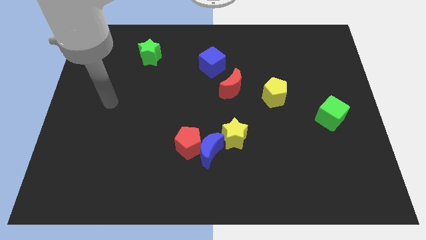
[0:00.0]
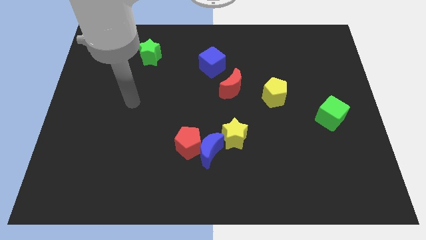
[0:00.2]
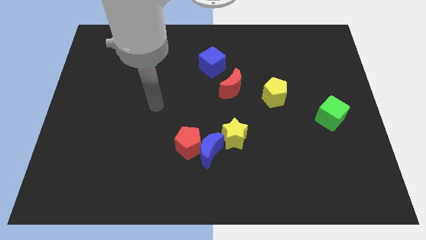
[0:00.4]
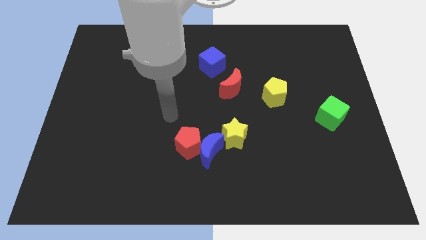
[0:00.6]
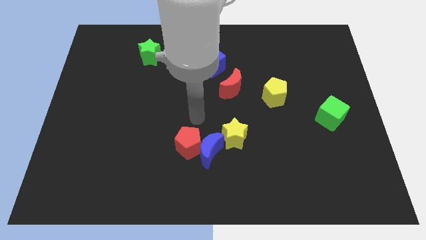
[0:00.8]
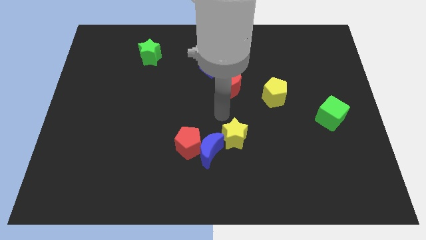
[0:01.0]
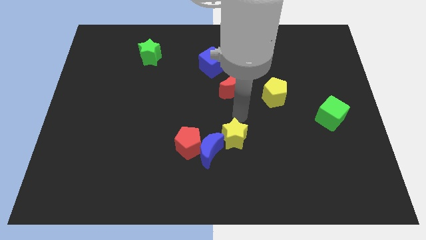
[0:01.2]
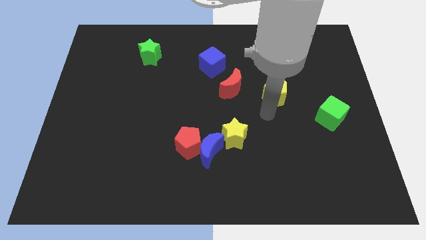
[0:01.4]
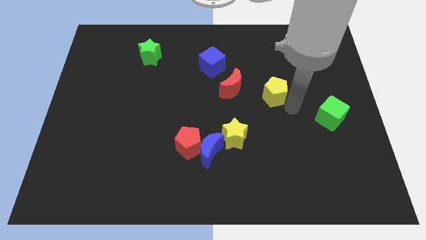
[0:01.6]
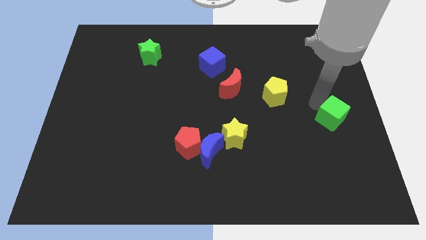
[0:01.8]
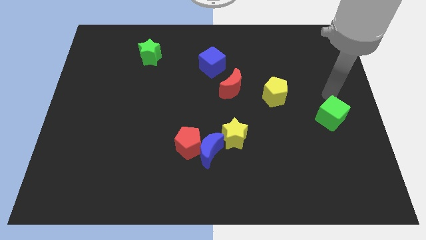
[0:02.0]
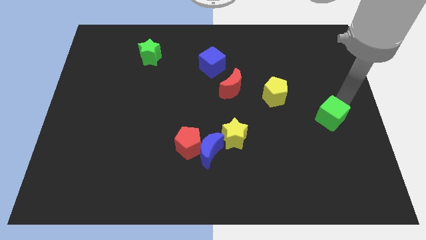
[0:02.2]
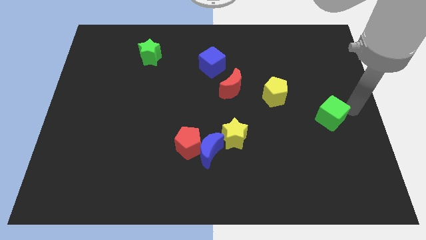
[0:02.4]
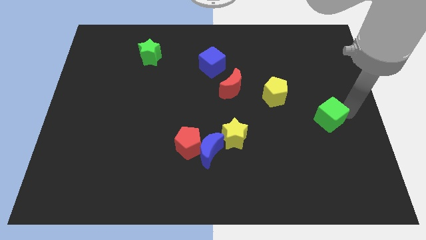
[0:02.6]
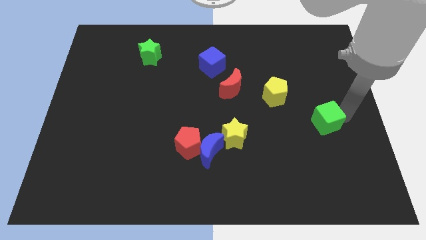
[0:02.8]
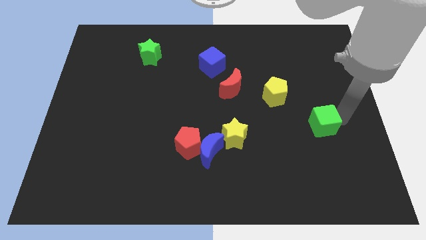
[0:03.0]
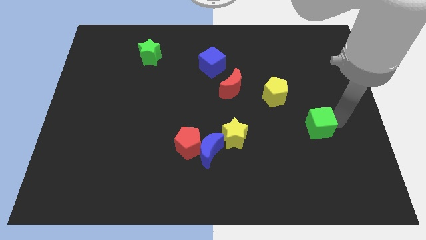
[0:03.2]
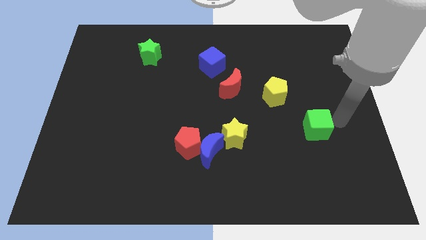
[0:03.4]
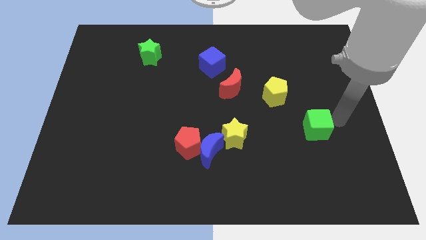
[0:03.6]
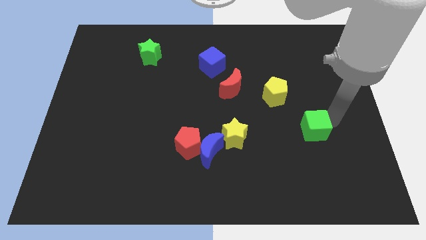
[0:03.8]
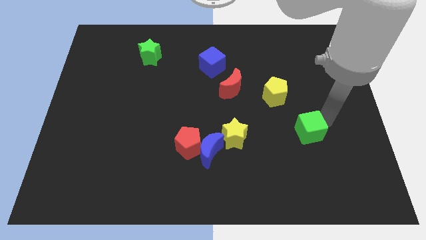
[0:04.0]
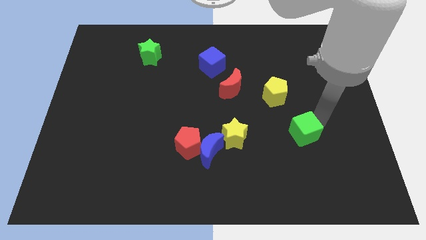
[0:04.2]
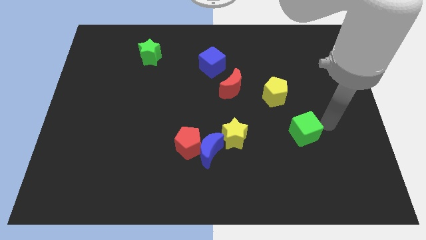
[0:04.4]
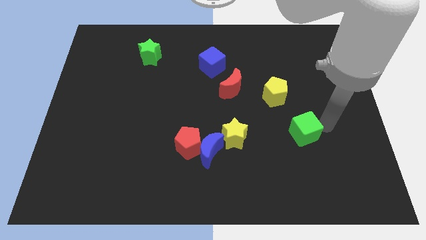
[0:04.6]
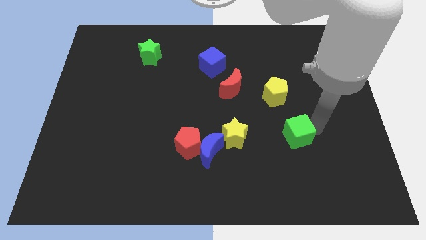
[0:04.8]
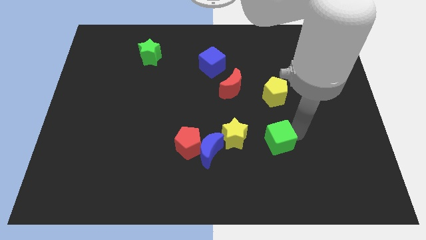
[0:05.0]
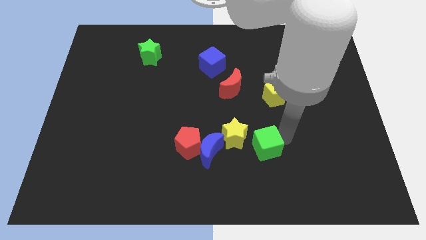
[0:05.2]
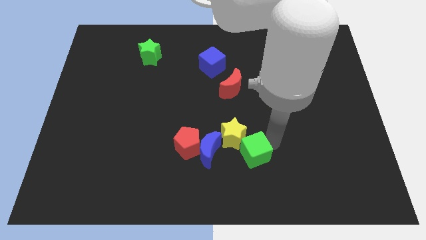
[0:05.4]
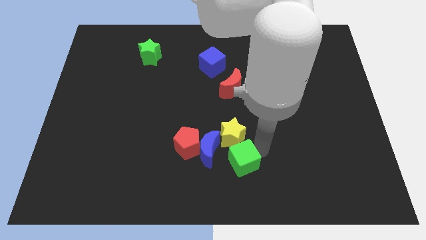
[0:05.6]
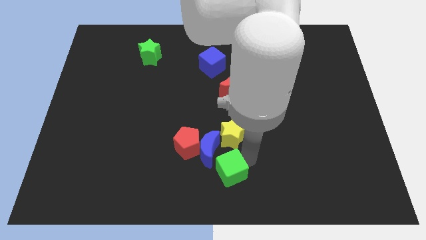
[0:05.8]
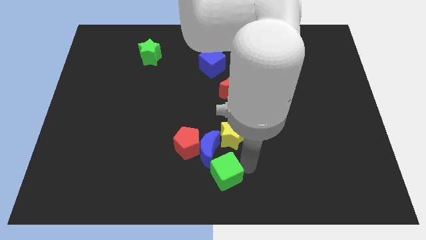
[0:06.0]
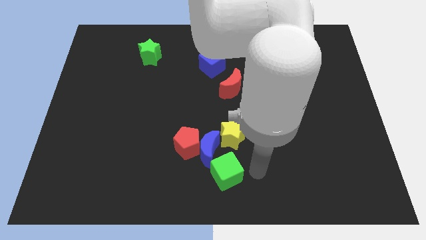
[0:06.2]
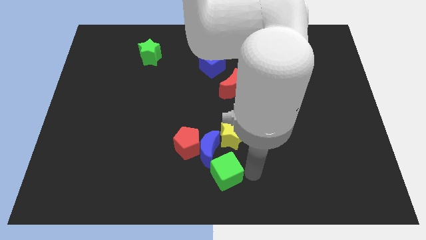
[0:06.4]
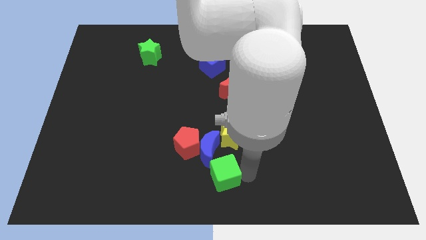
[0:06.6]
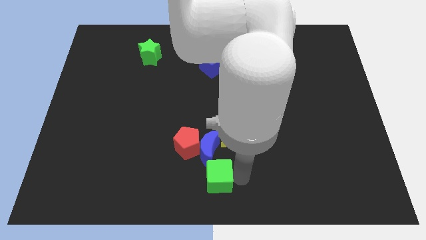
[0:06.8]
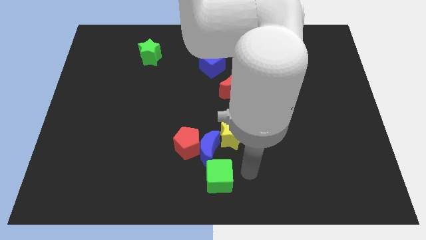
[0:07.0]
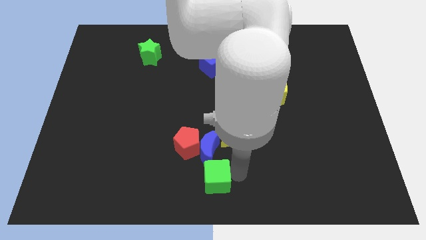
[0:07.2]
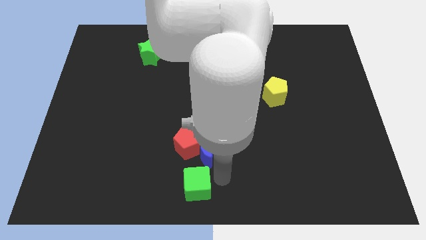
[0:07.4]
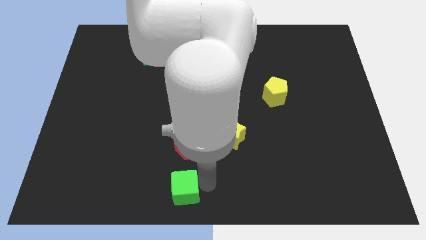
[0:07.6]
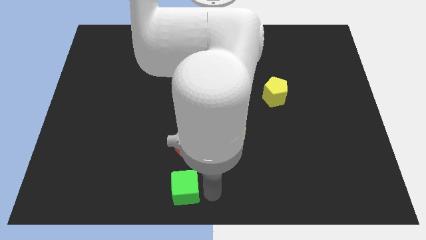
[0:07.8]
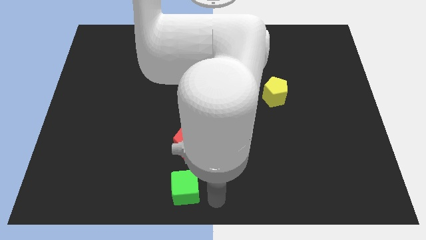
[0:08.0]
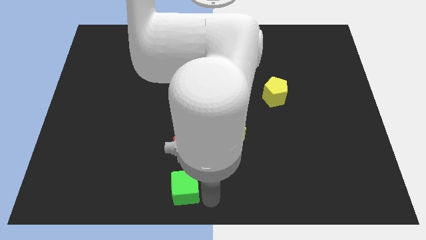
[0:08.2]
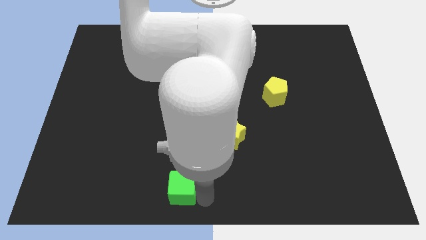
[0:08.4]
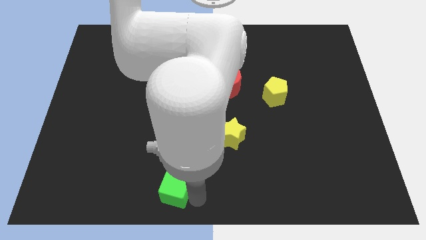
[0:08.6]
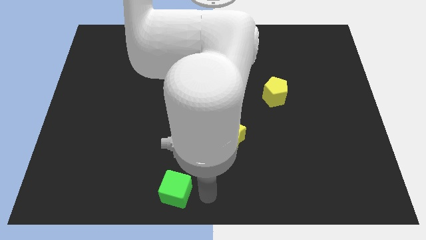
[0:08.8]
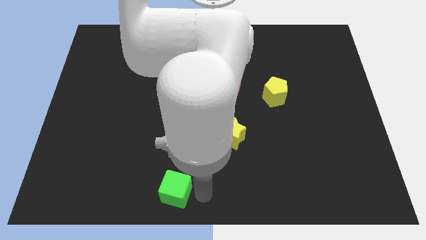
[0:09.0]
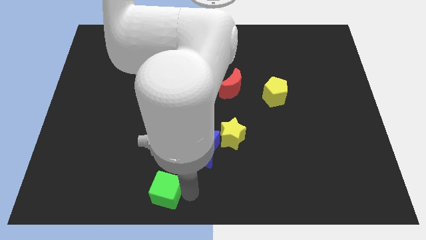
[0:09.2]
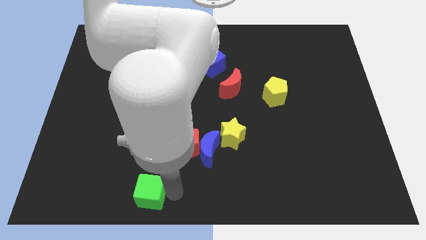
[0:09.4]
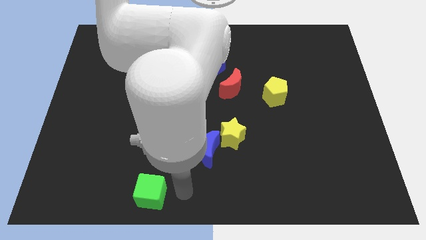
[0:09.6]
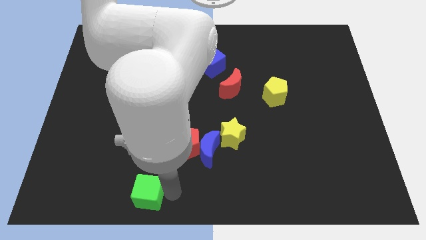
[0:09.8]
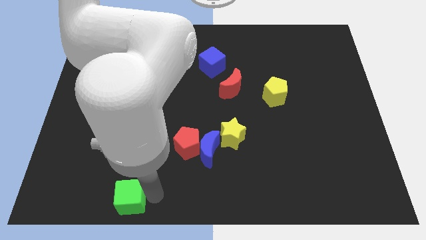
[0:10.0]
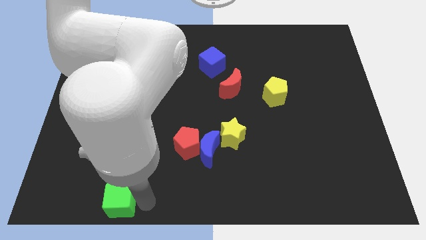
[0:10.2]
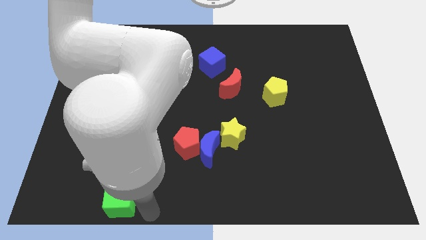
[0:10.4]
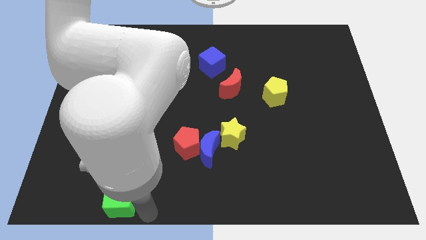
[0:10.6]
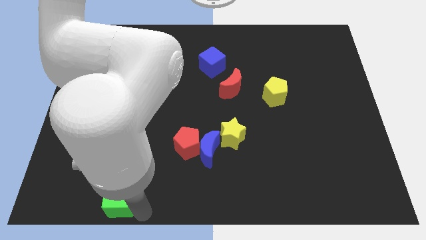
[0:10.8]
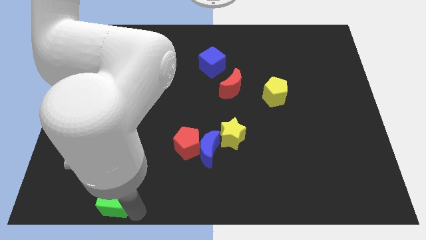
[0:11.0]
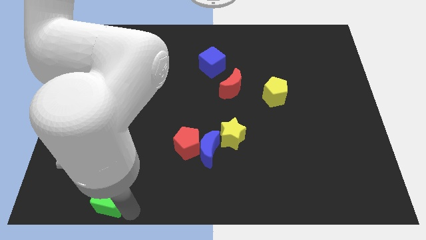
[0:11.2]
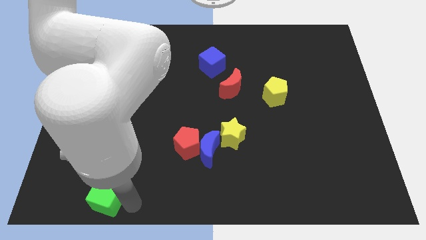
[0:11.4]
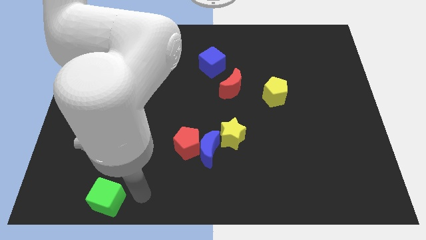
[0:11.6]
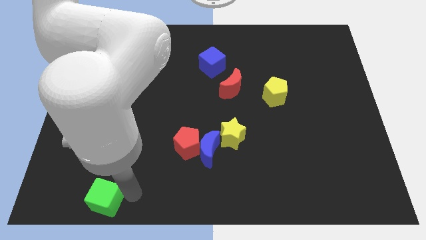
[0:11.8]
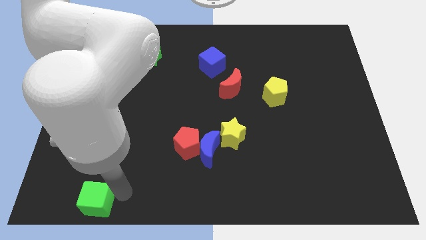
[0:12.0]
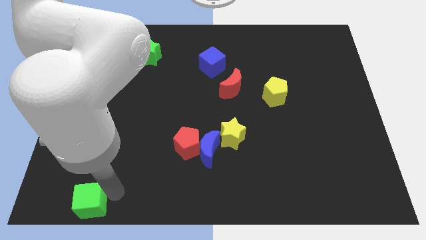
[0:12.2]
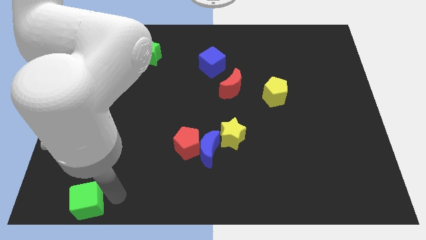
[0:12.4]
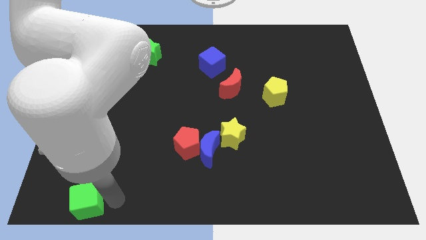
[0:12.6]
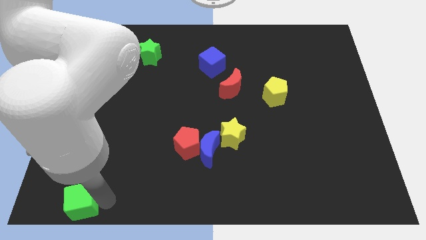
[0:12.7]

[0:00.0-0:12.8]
push the green cube to the bottom left

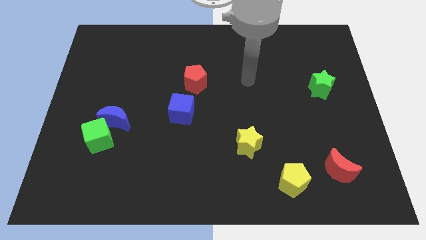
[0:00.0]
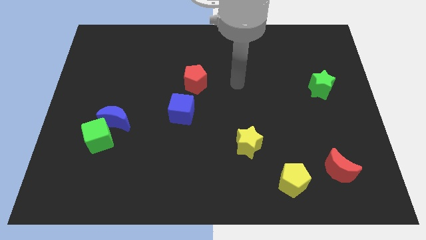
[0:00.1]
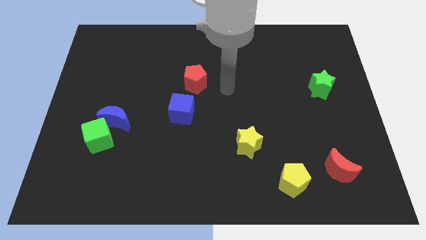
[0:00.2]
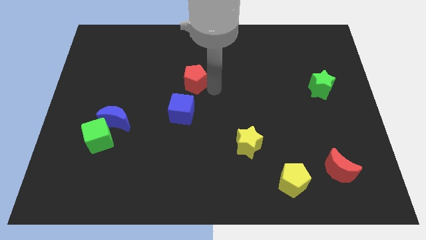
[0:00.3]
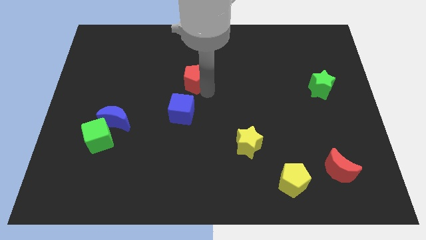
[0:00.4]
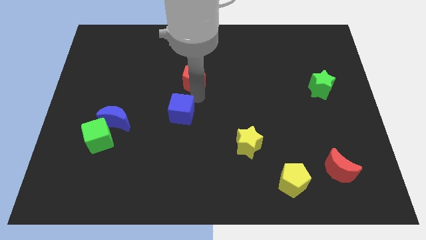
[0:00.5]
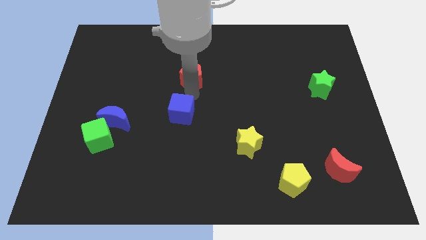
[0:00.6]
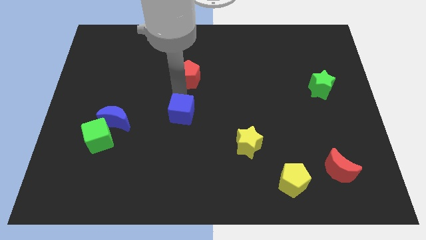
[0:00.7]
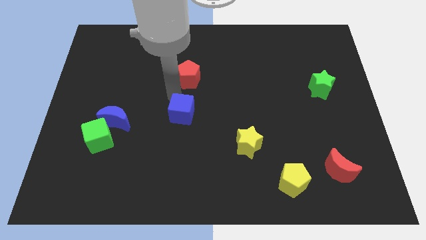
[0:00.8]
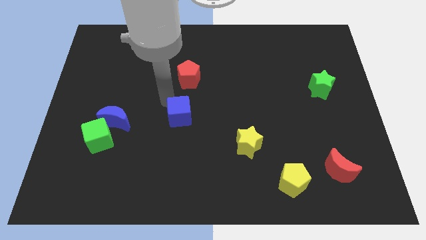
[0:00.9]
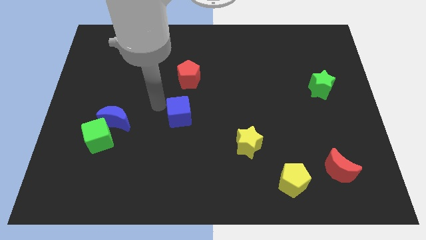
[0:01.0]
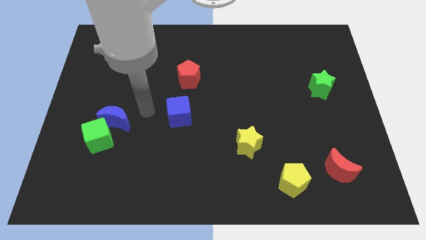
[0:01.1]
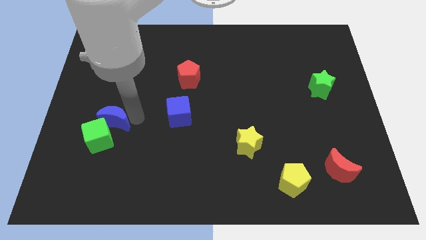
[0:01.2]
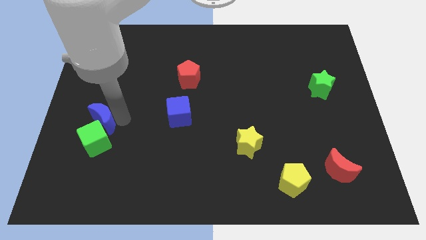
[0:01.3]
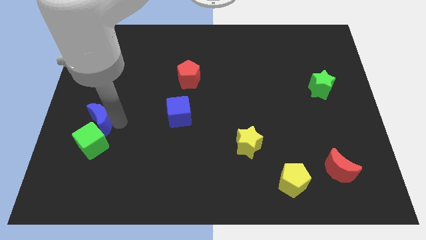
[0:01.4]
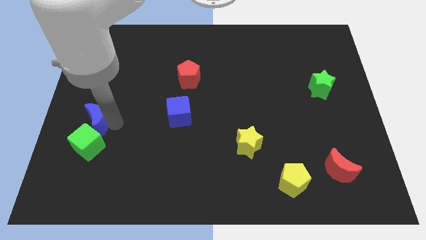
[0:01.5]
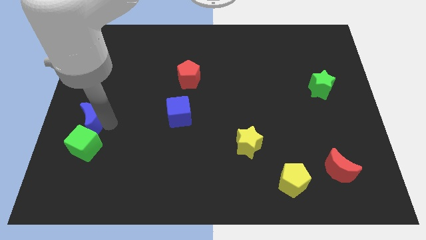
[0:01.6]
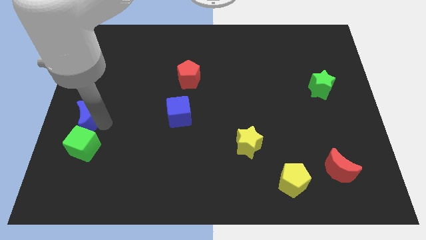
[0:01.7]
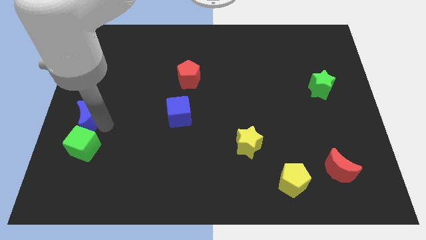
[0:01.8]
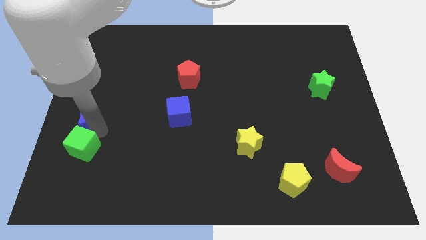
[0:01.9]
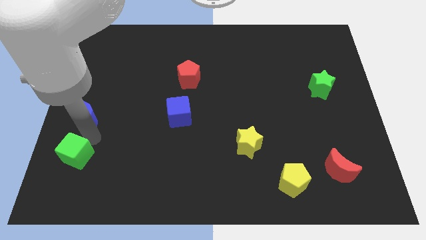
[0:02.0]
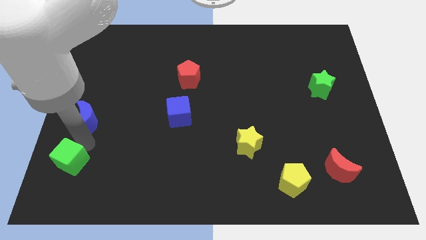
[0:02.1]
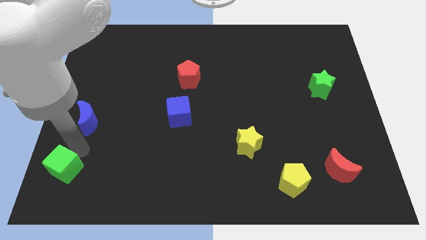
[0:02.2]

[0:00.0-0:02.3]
slide the green cube to the bottom left of the board
